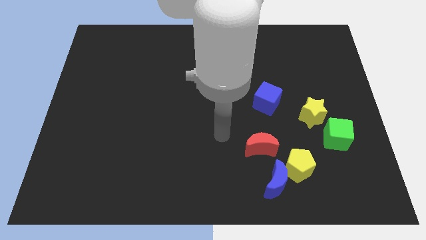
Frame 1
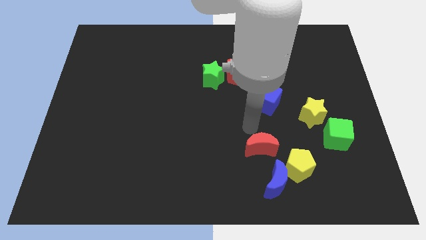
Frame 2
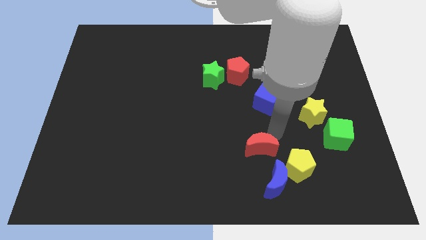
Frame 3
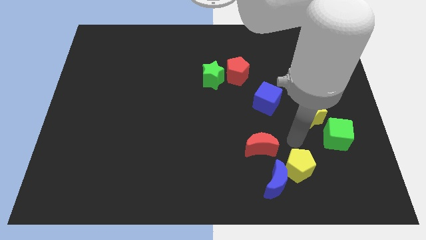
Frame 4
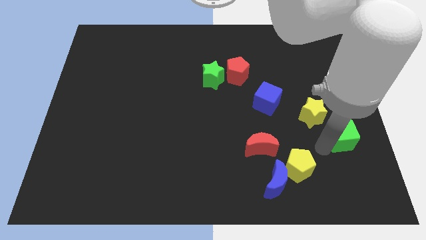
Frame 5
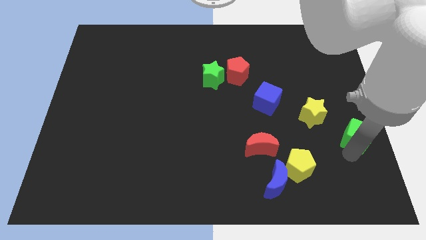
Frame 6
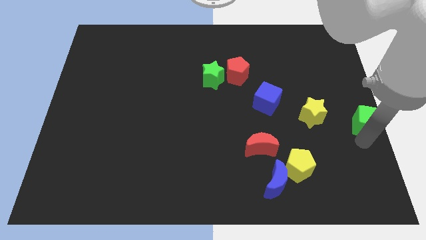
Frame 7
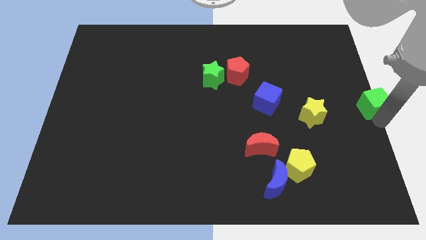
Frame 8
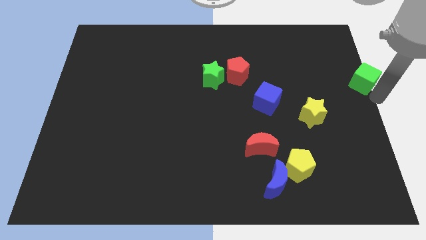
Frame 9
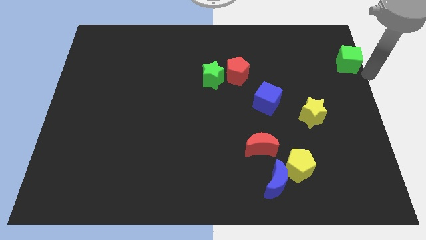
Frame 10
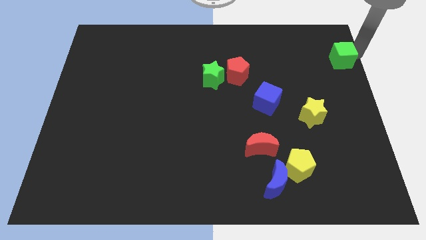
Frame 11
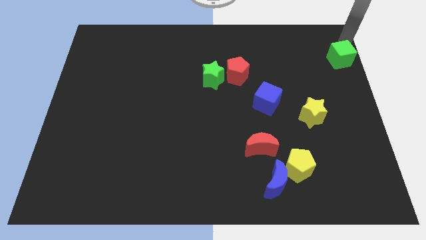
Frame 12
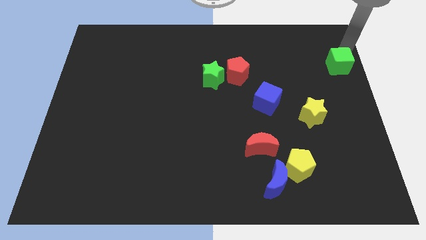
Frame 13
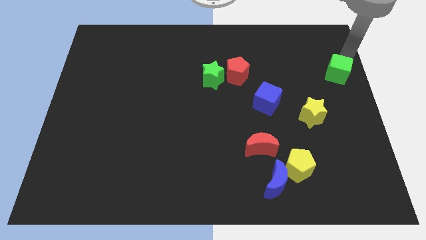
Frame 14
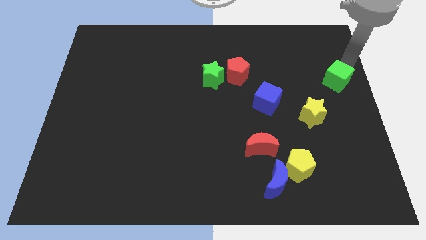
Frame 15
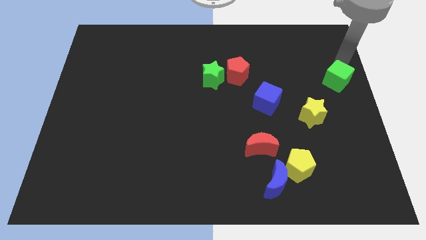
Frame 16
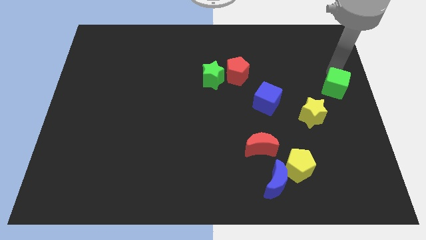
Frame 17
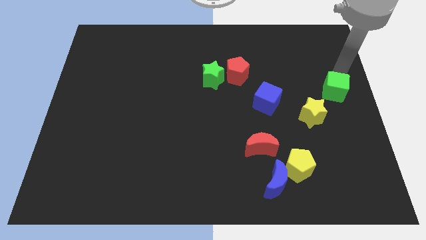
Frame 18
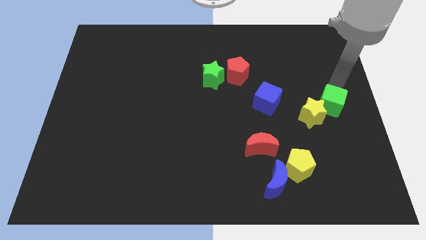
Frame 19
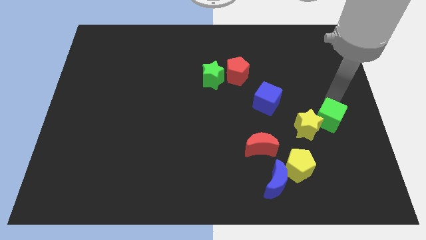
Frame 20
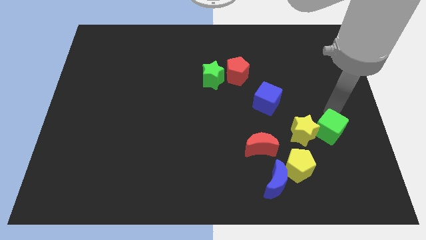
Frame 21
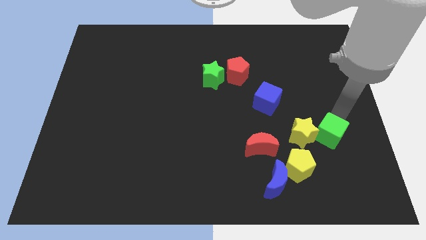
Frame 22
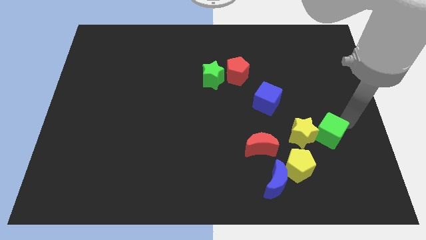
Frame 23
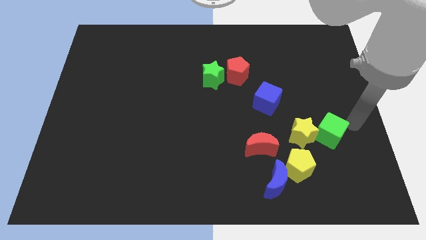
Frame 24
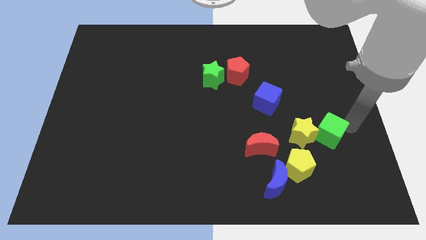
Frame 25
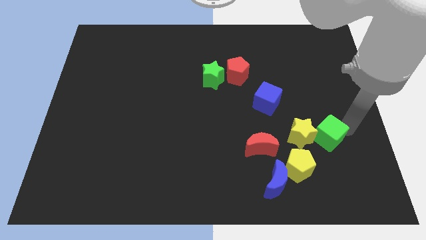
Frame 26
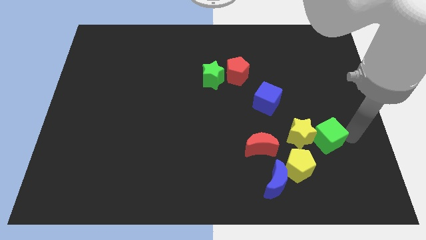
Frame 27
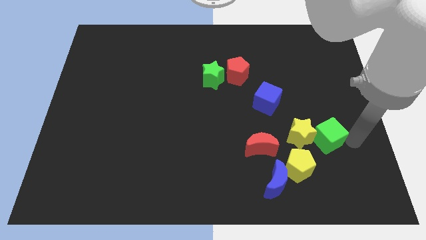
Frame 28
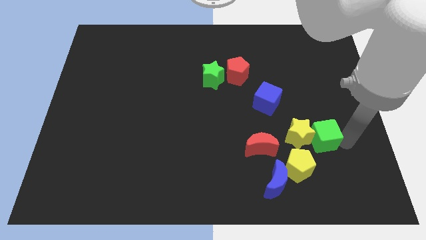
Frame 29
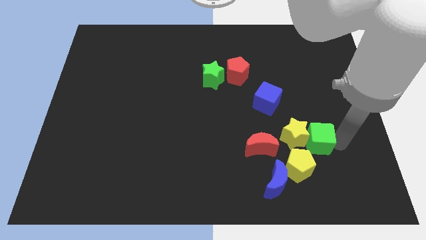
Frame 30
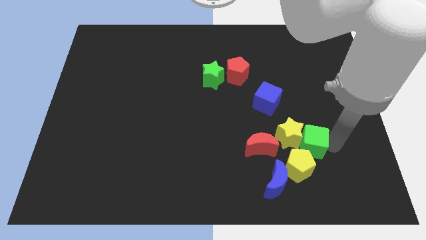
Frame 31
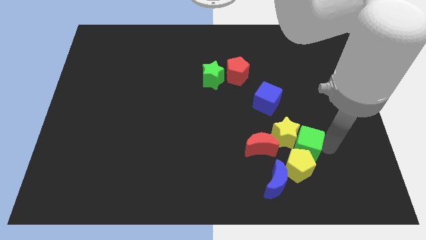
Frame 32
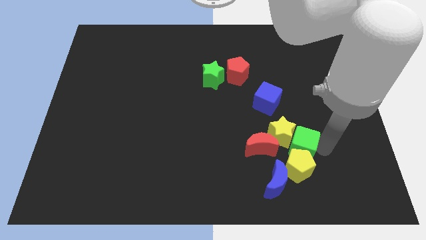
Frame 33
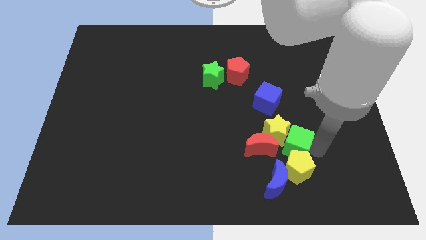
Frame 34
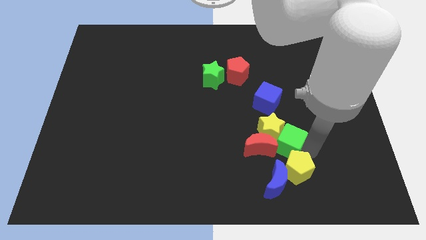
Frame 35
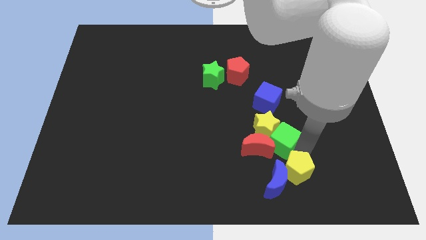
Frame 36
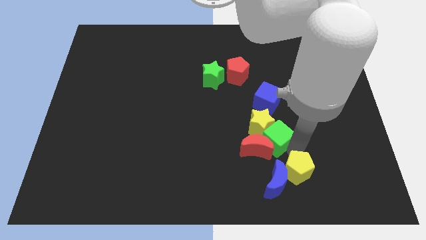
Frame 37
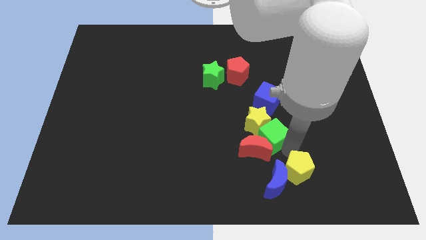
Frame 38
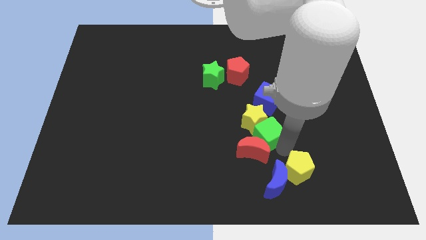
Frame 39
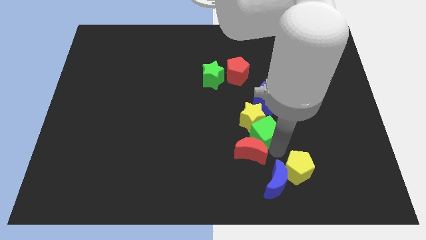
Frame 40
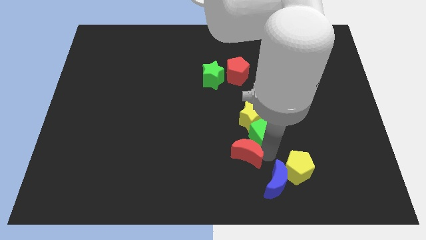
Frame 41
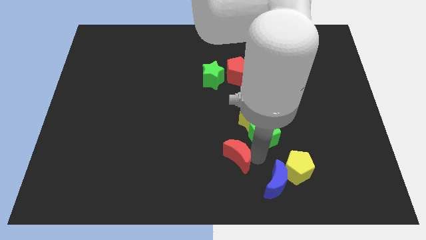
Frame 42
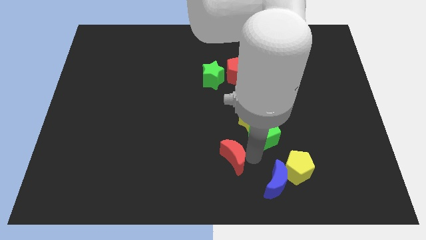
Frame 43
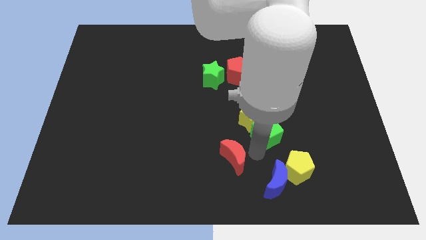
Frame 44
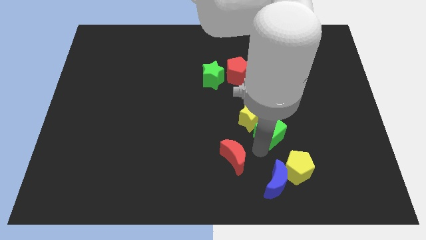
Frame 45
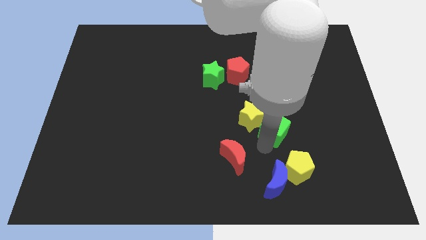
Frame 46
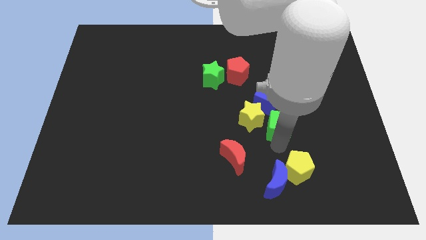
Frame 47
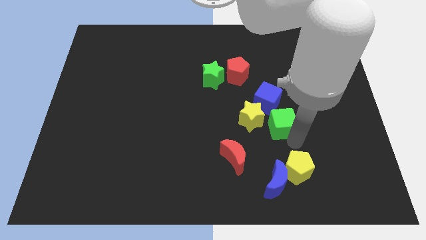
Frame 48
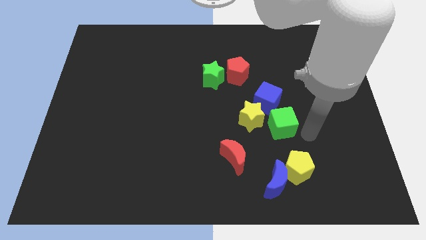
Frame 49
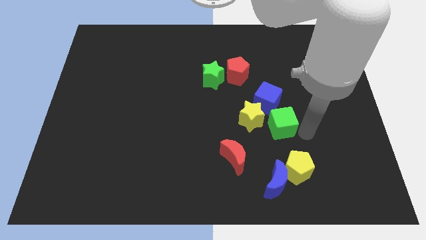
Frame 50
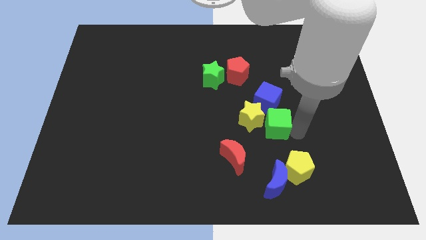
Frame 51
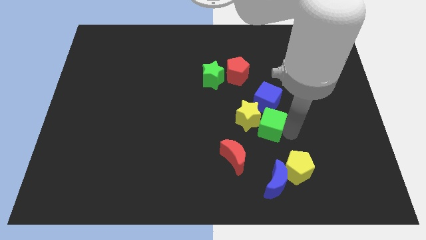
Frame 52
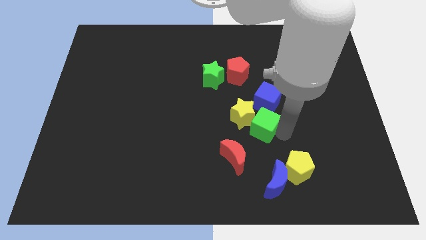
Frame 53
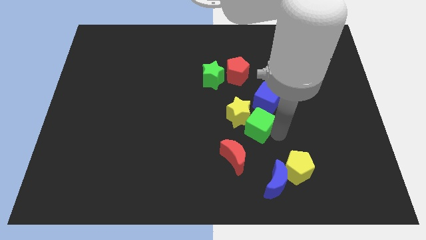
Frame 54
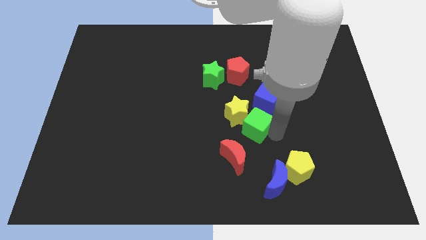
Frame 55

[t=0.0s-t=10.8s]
move the green cube to the middle
